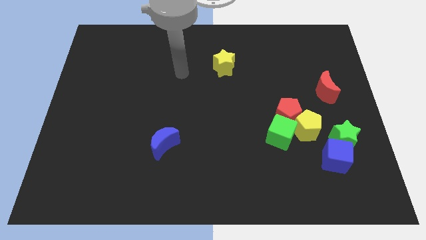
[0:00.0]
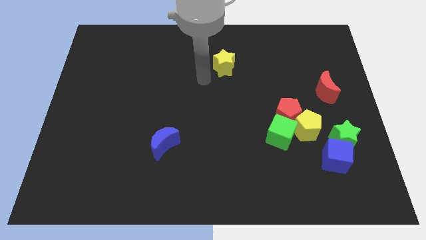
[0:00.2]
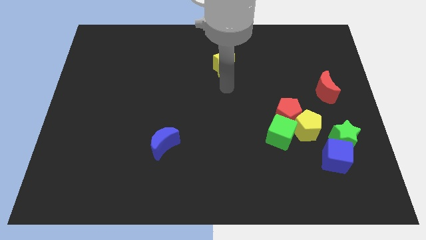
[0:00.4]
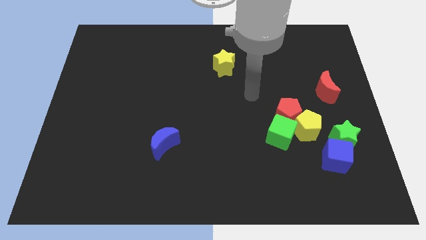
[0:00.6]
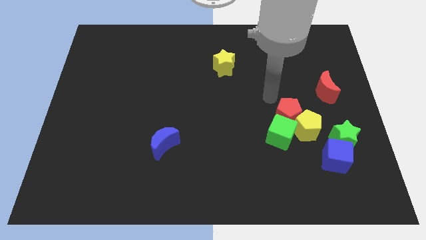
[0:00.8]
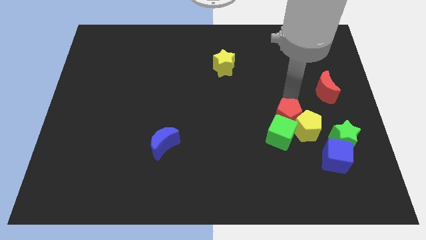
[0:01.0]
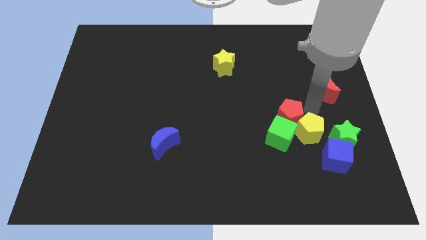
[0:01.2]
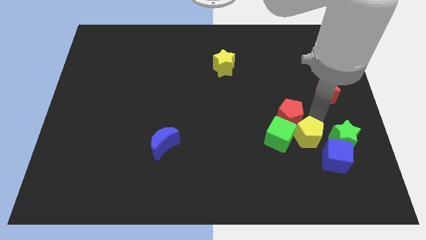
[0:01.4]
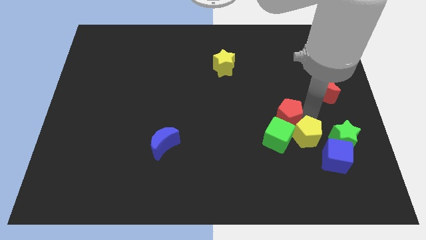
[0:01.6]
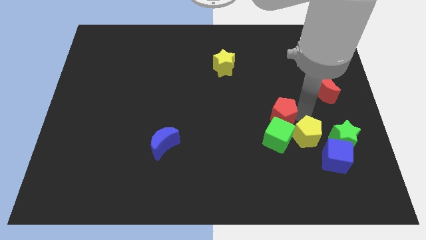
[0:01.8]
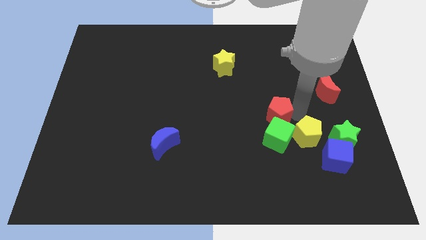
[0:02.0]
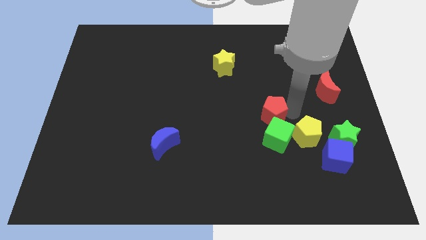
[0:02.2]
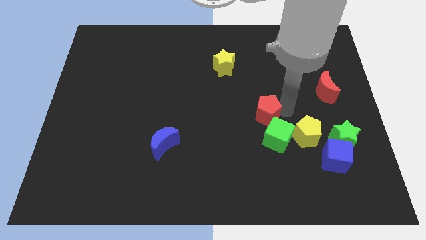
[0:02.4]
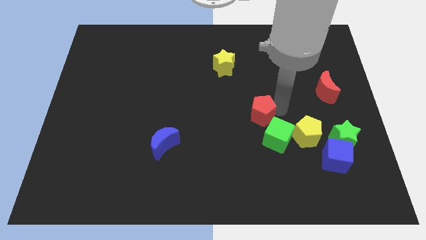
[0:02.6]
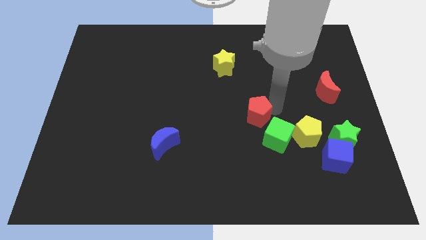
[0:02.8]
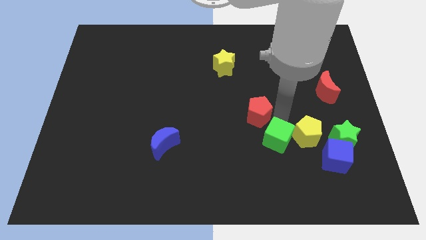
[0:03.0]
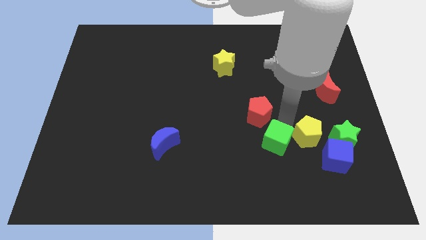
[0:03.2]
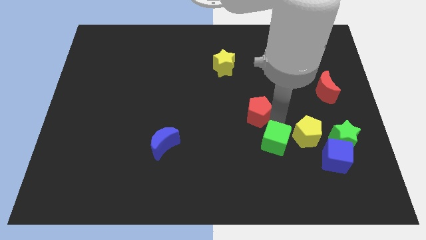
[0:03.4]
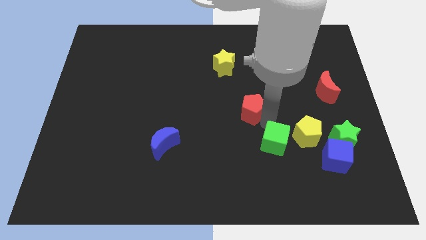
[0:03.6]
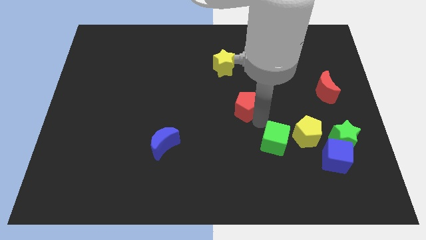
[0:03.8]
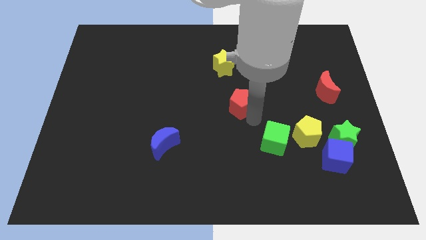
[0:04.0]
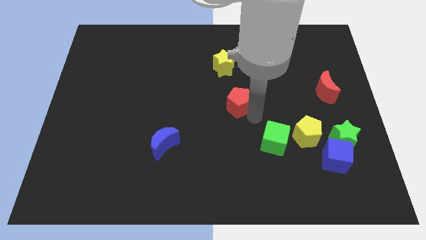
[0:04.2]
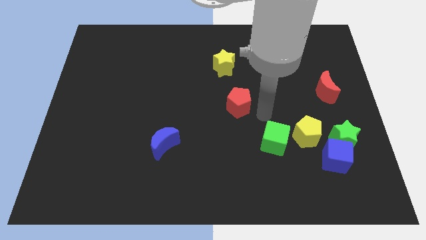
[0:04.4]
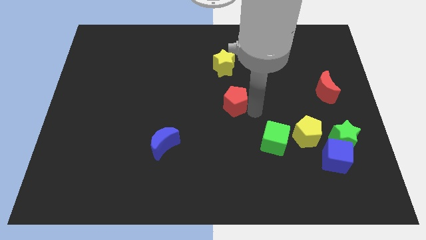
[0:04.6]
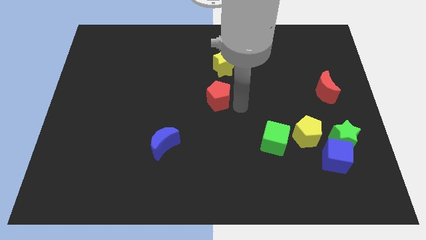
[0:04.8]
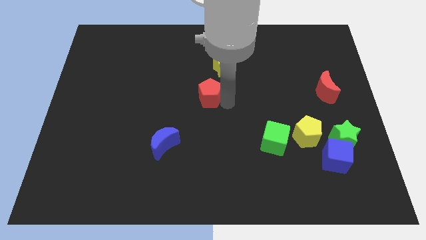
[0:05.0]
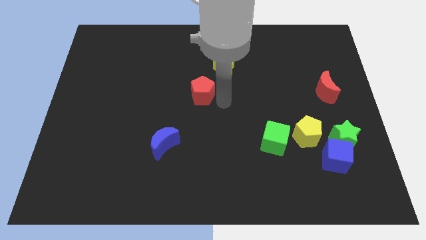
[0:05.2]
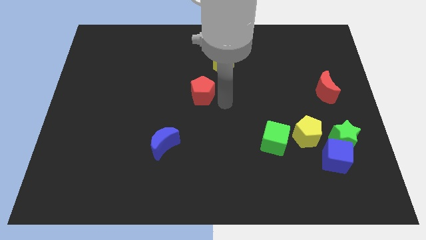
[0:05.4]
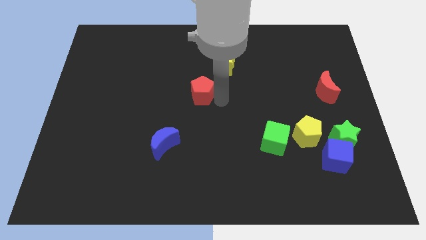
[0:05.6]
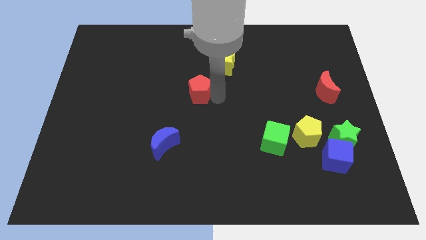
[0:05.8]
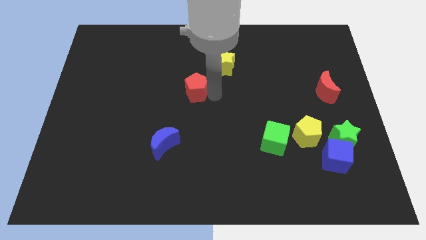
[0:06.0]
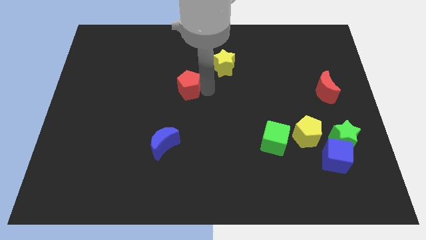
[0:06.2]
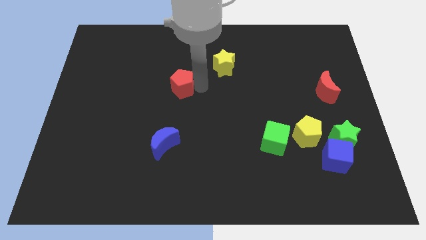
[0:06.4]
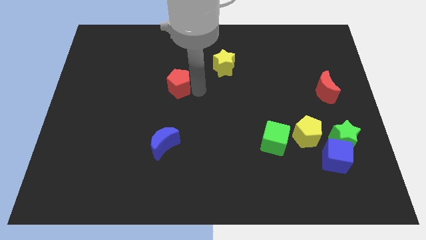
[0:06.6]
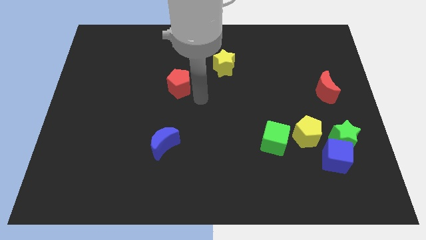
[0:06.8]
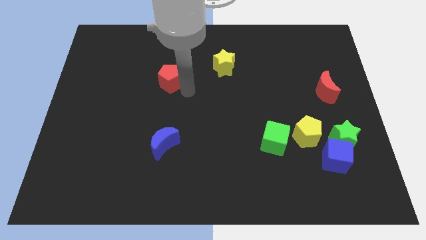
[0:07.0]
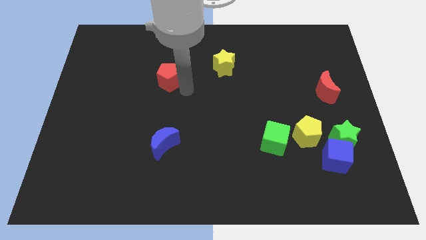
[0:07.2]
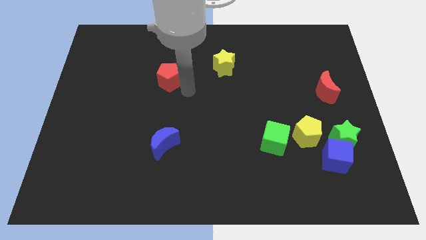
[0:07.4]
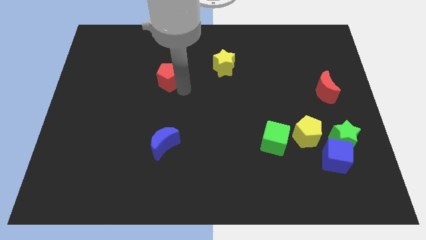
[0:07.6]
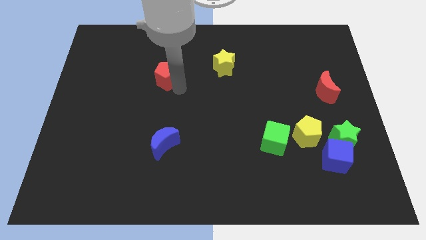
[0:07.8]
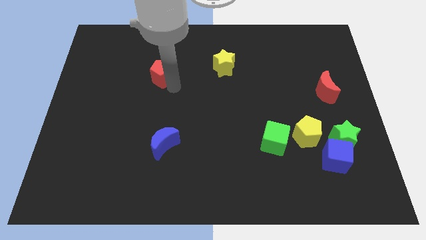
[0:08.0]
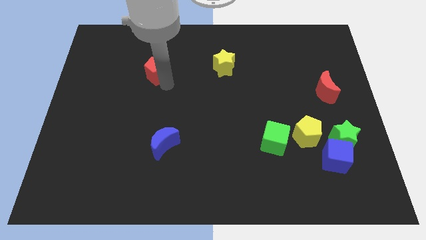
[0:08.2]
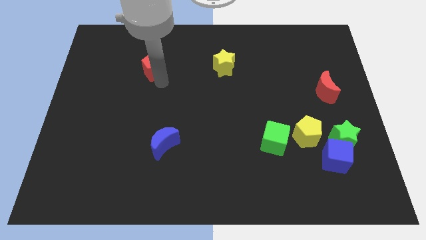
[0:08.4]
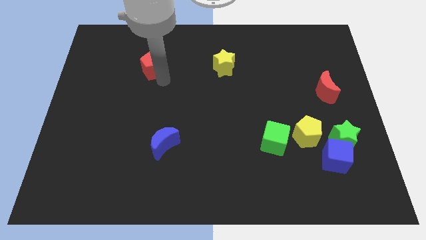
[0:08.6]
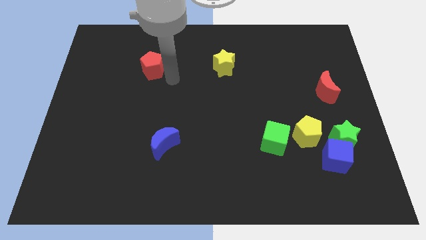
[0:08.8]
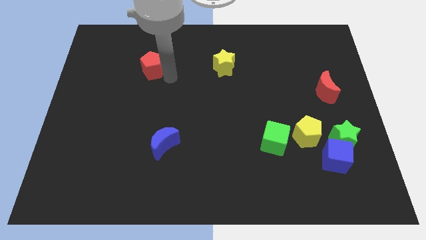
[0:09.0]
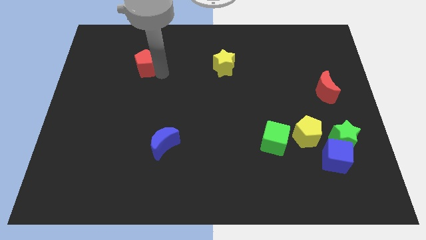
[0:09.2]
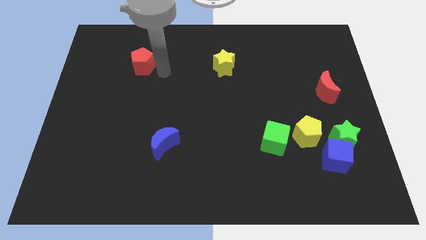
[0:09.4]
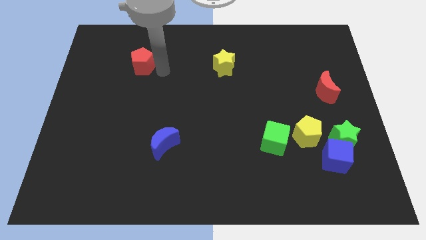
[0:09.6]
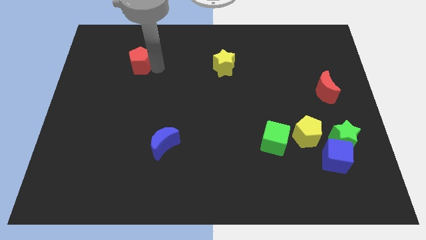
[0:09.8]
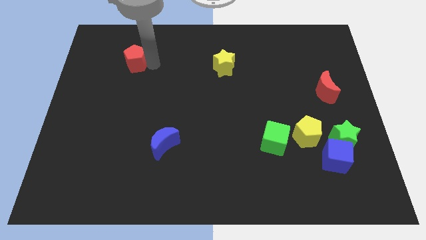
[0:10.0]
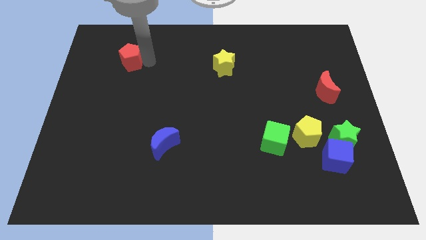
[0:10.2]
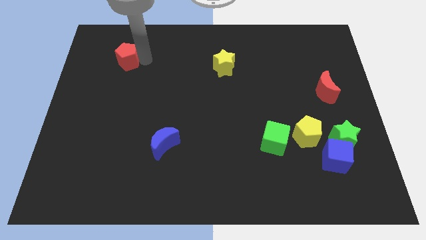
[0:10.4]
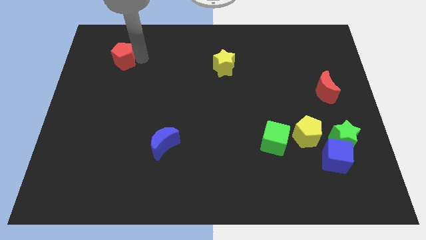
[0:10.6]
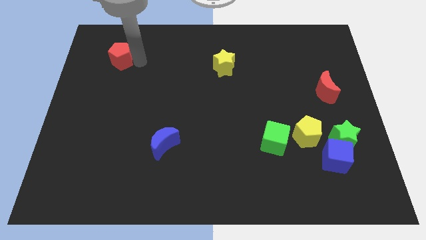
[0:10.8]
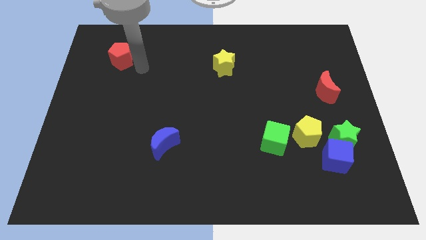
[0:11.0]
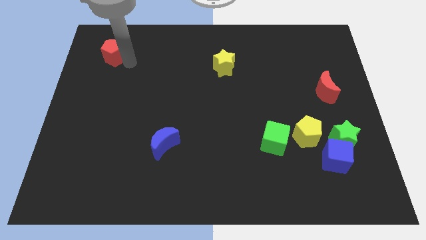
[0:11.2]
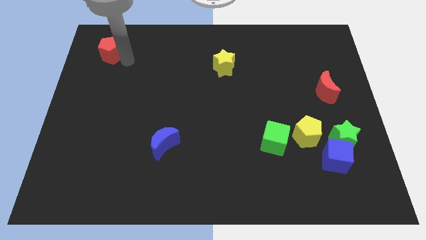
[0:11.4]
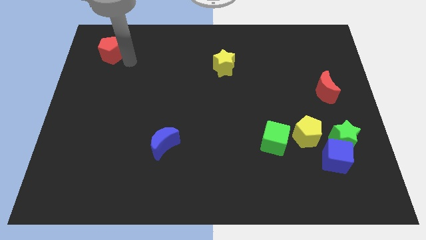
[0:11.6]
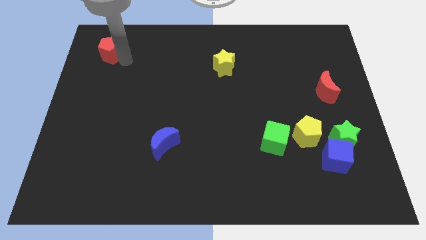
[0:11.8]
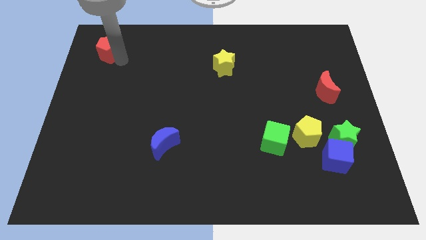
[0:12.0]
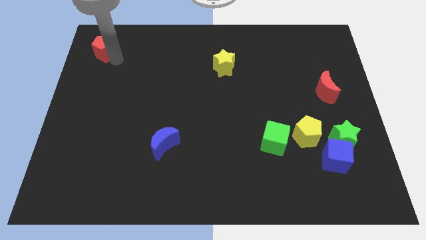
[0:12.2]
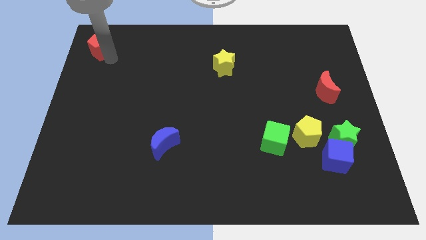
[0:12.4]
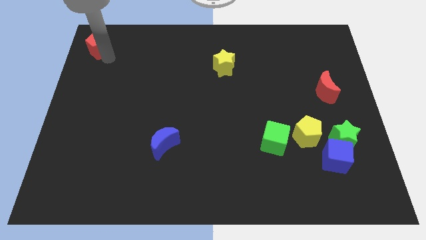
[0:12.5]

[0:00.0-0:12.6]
slide the red pentagon to the top left

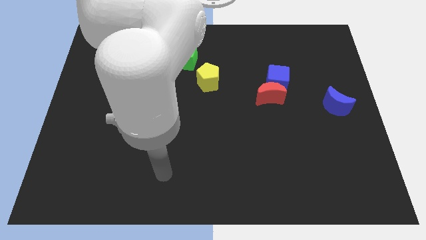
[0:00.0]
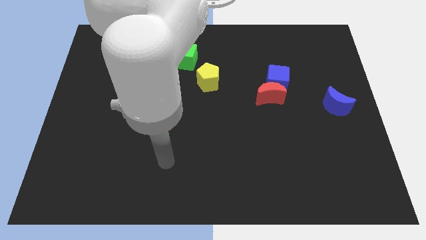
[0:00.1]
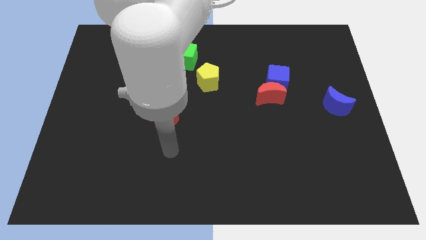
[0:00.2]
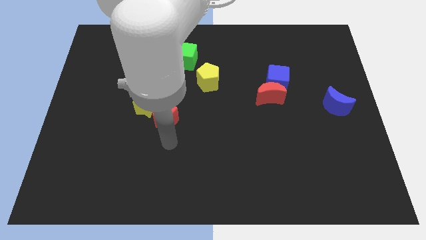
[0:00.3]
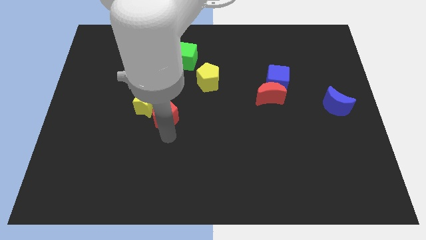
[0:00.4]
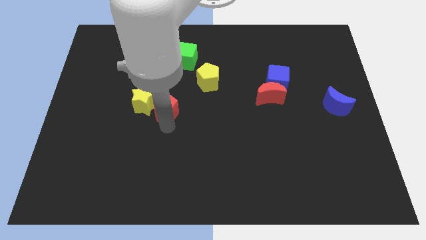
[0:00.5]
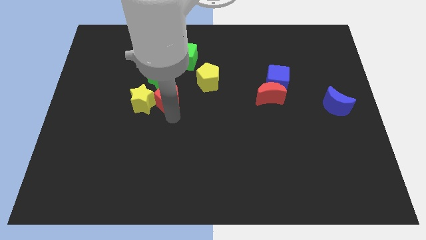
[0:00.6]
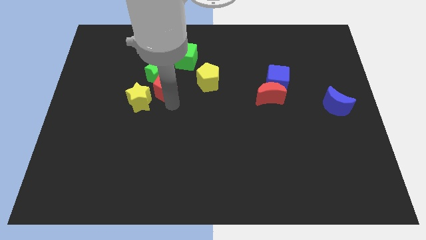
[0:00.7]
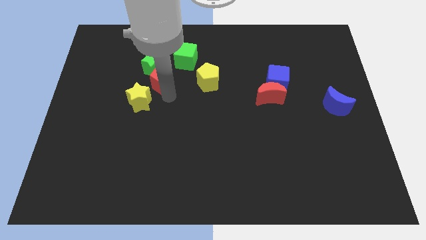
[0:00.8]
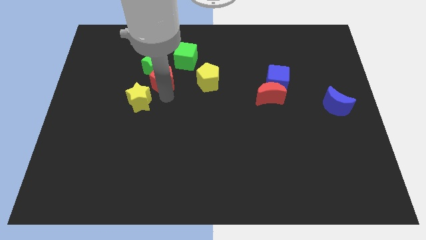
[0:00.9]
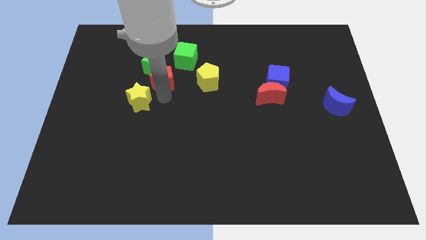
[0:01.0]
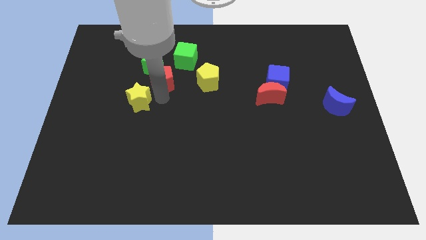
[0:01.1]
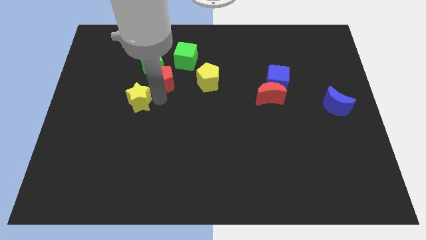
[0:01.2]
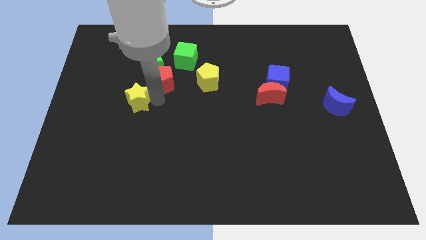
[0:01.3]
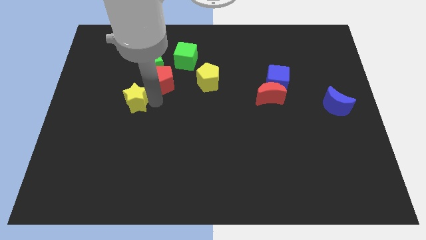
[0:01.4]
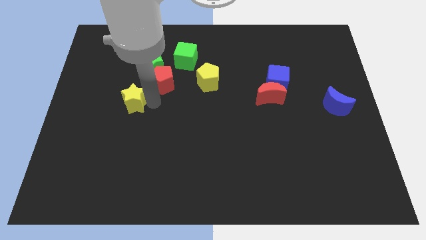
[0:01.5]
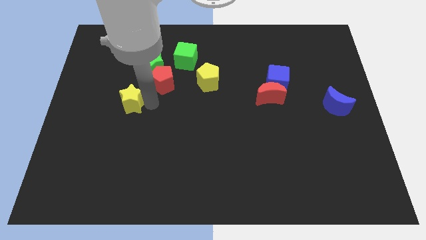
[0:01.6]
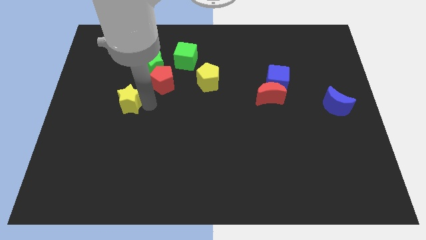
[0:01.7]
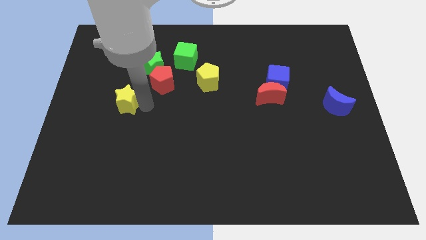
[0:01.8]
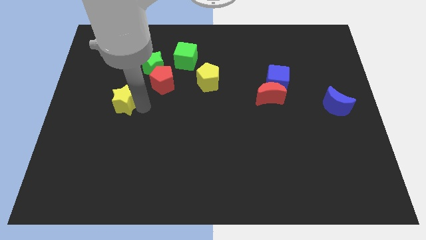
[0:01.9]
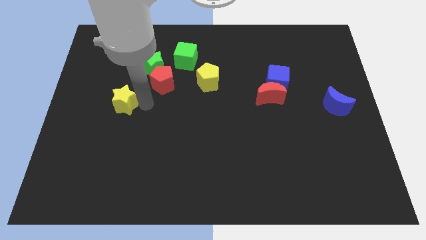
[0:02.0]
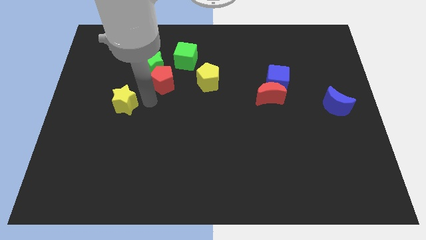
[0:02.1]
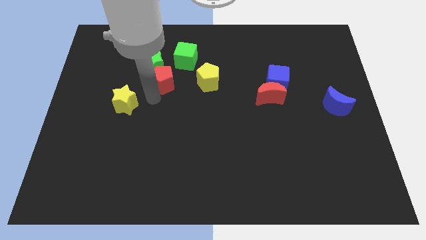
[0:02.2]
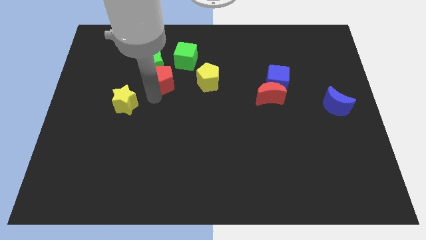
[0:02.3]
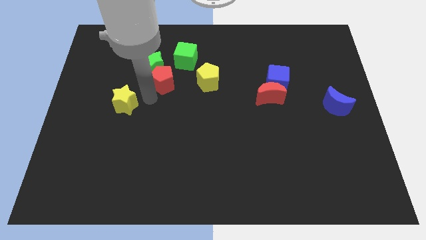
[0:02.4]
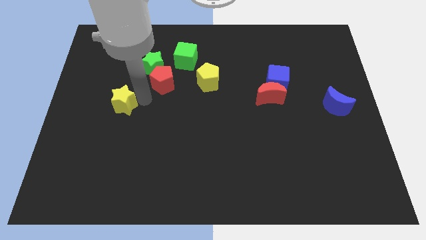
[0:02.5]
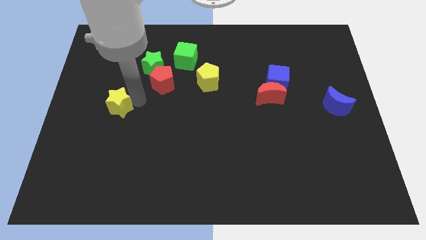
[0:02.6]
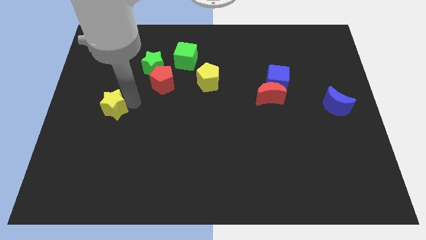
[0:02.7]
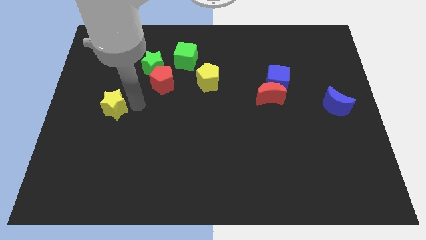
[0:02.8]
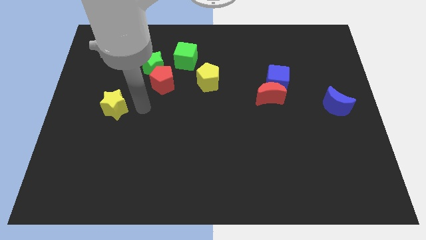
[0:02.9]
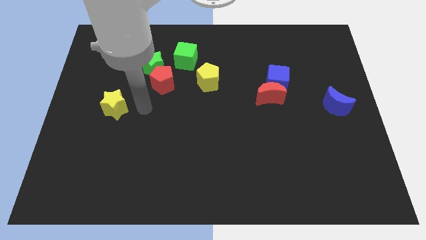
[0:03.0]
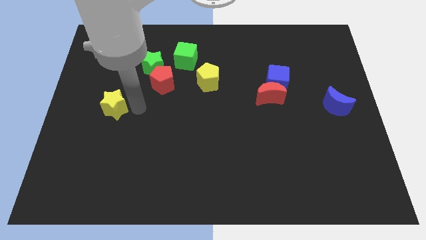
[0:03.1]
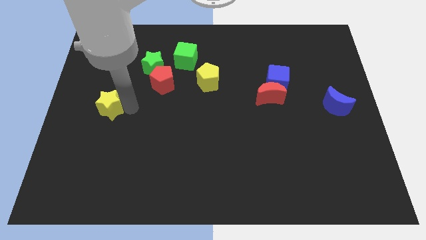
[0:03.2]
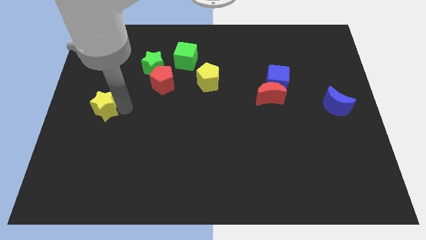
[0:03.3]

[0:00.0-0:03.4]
push the yellow star to the left side of the board
